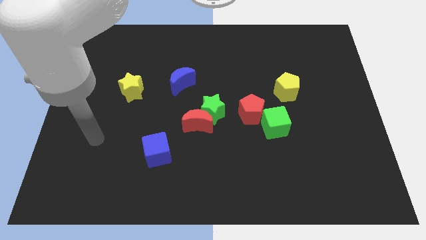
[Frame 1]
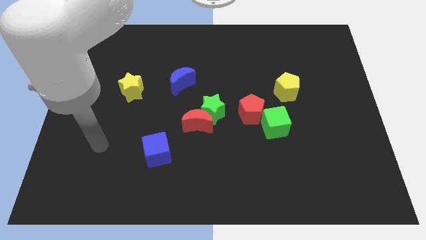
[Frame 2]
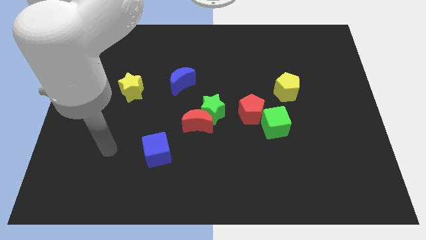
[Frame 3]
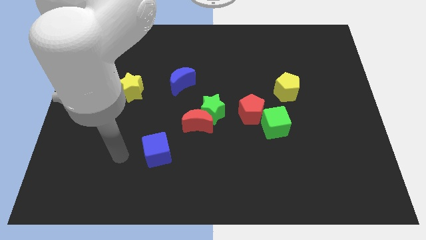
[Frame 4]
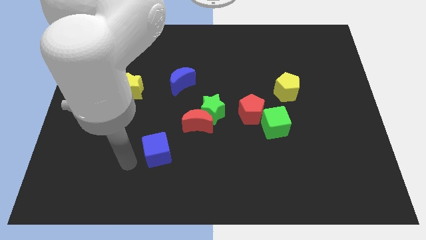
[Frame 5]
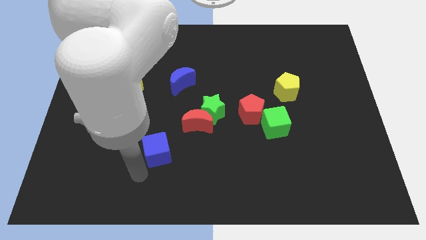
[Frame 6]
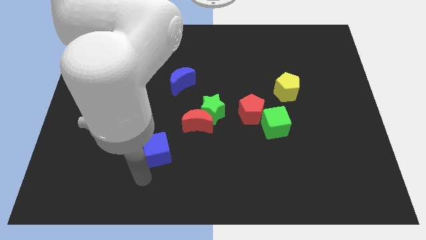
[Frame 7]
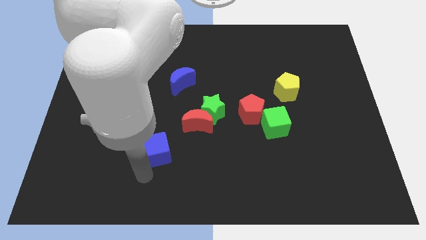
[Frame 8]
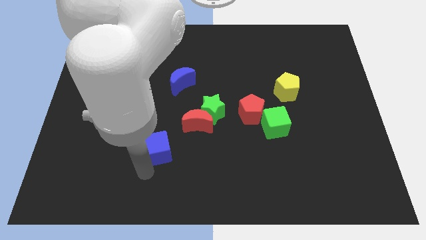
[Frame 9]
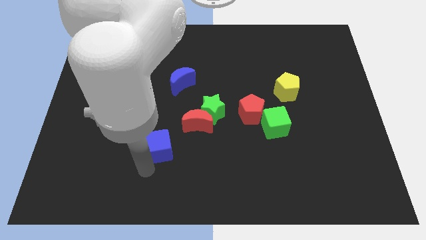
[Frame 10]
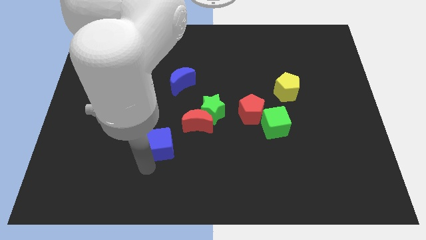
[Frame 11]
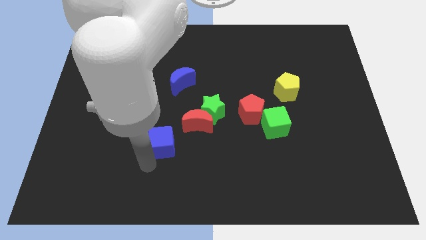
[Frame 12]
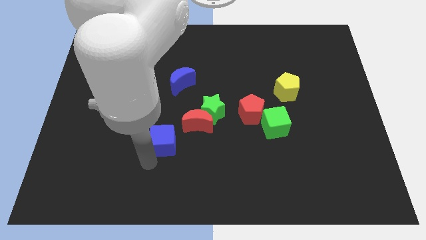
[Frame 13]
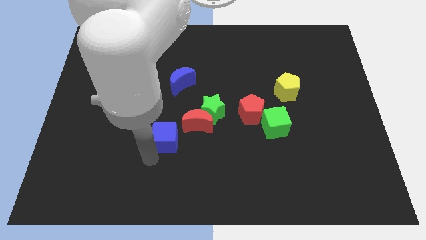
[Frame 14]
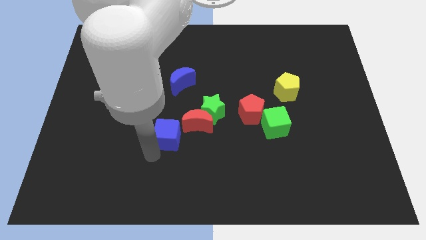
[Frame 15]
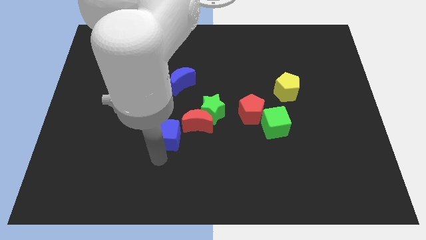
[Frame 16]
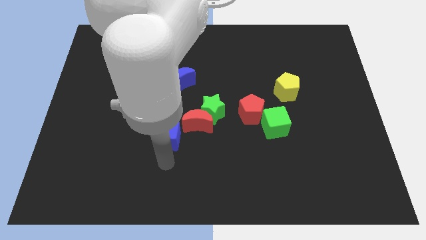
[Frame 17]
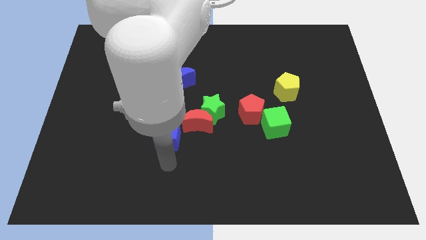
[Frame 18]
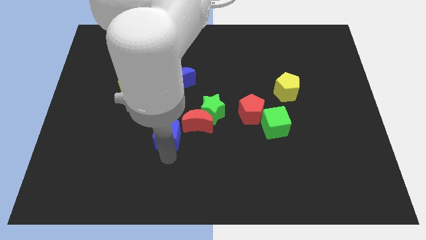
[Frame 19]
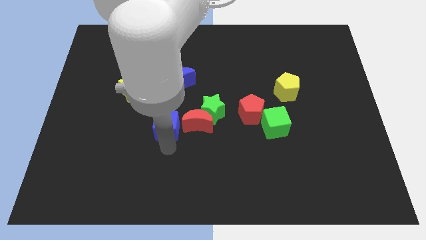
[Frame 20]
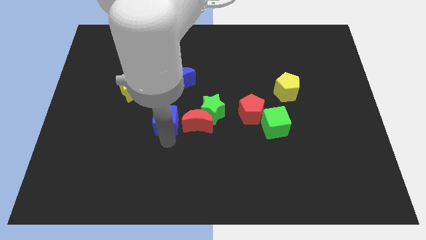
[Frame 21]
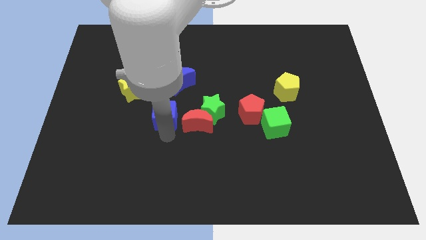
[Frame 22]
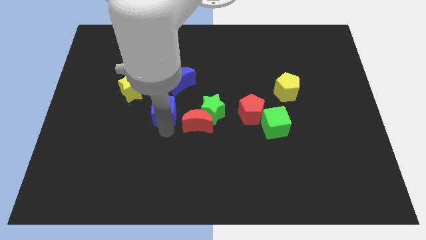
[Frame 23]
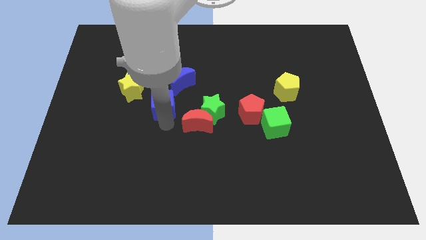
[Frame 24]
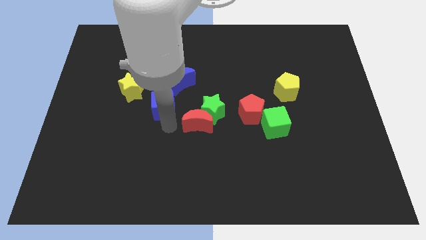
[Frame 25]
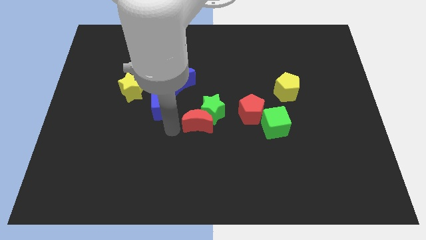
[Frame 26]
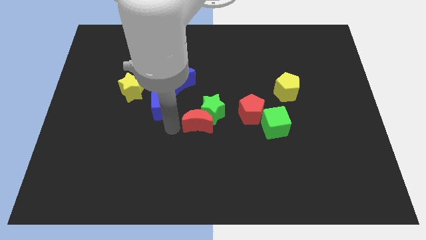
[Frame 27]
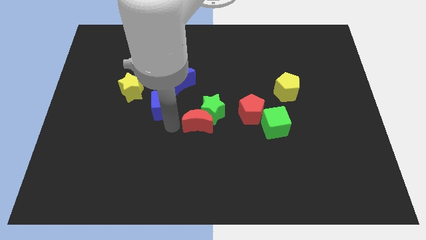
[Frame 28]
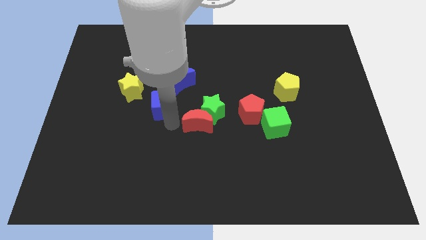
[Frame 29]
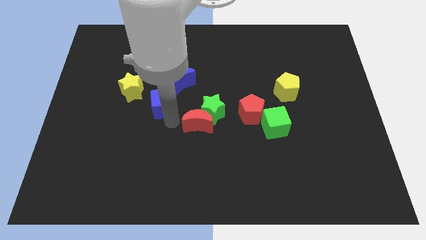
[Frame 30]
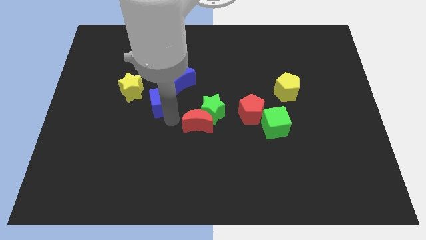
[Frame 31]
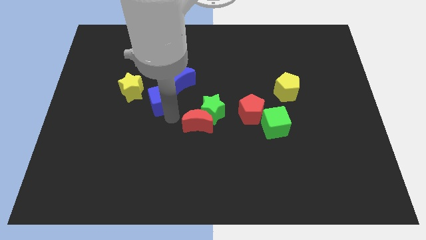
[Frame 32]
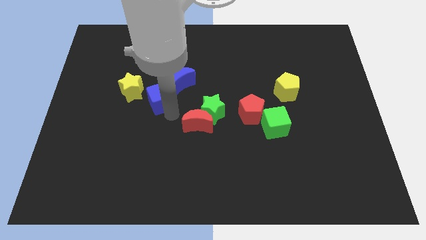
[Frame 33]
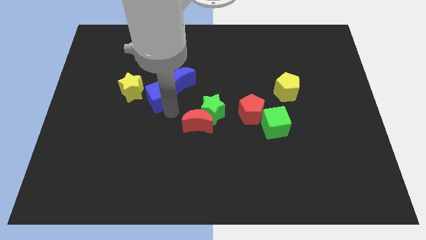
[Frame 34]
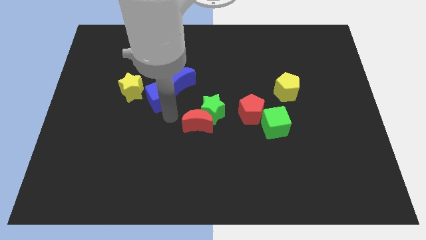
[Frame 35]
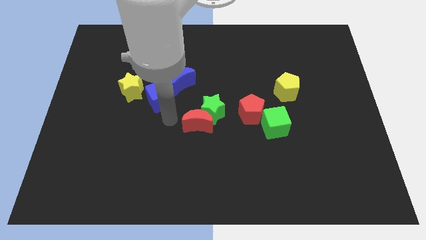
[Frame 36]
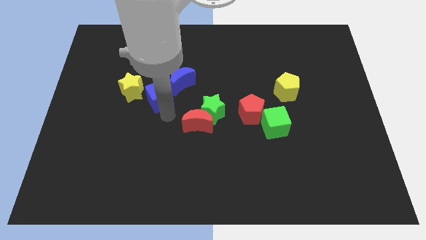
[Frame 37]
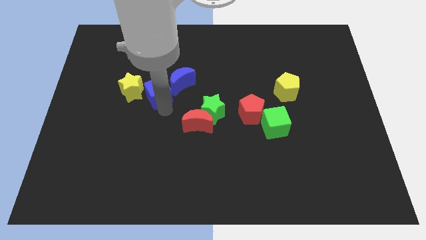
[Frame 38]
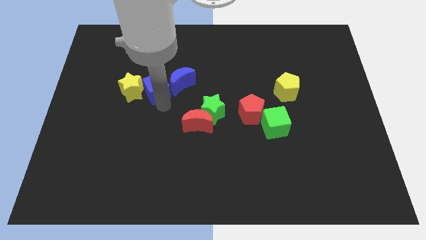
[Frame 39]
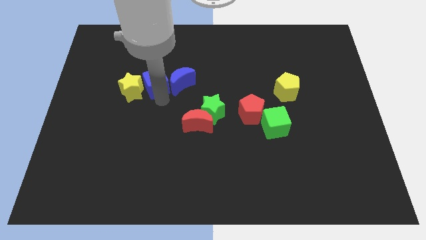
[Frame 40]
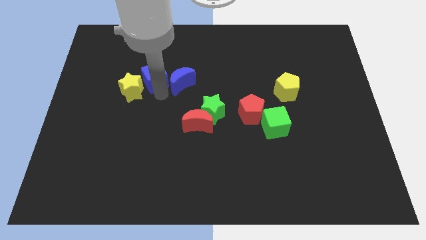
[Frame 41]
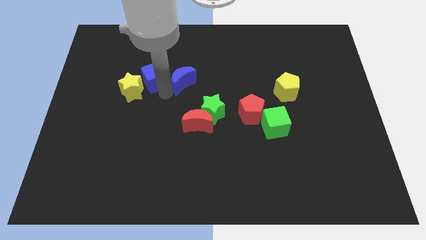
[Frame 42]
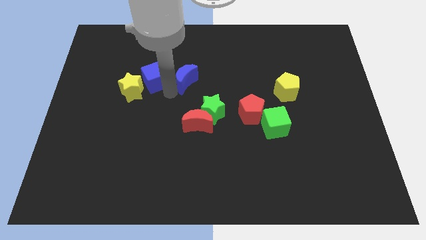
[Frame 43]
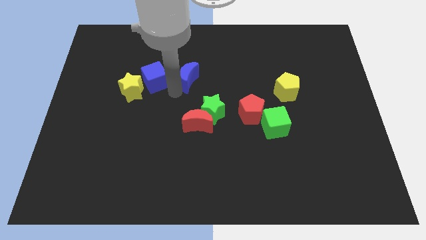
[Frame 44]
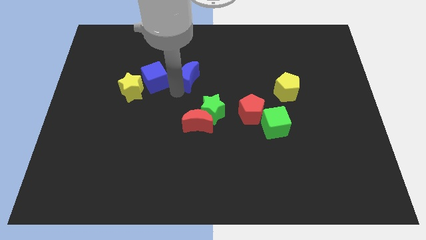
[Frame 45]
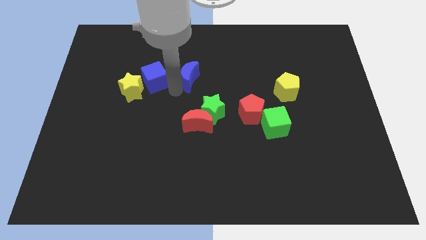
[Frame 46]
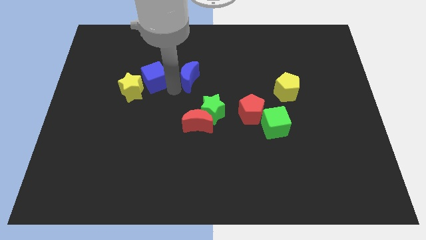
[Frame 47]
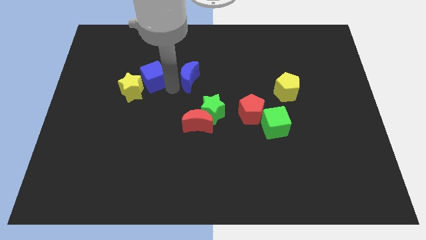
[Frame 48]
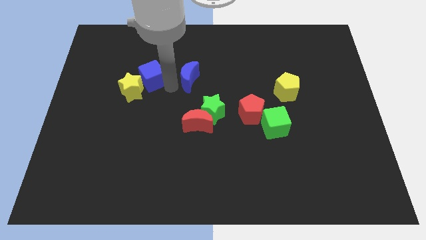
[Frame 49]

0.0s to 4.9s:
put the blue cube above the yellow star

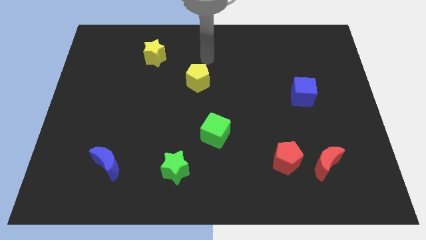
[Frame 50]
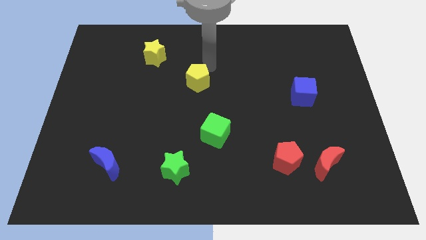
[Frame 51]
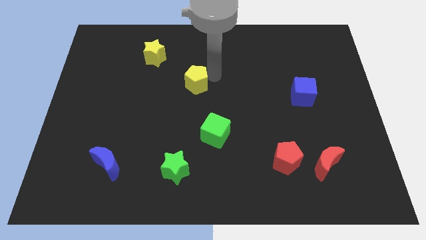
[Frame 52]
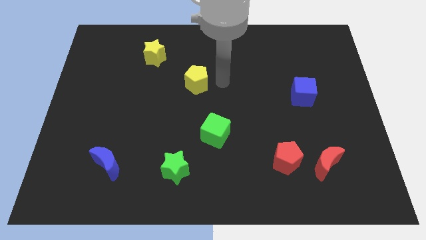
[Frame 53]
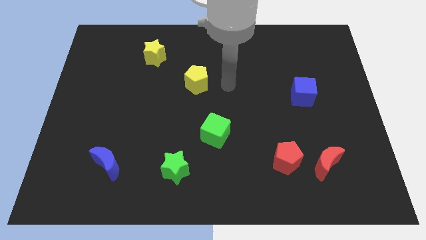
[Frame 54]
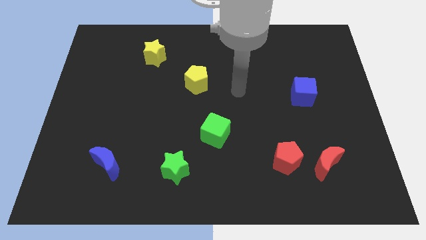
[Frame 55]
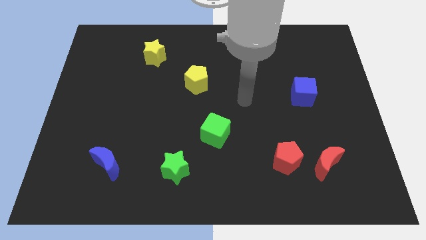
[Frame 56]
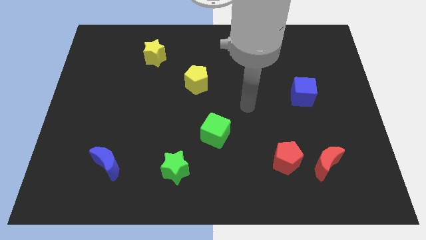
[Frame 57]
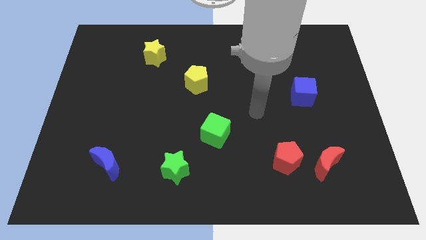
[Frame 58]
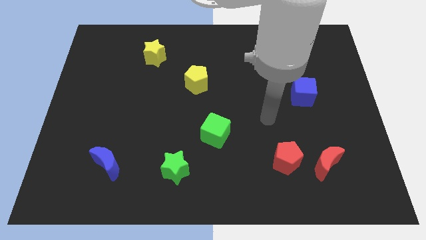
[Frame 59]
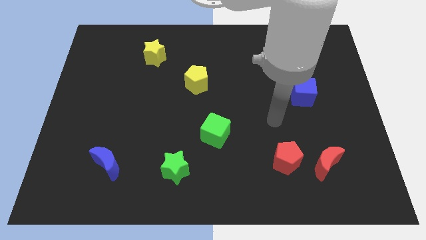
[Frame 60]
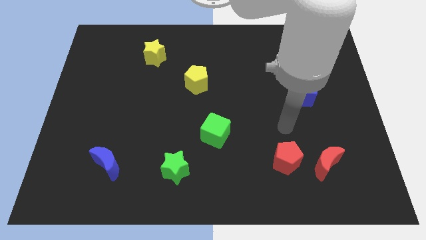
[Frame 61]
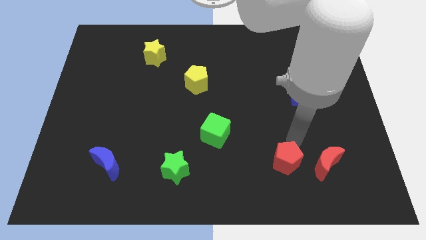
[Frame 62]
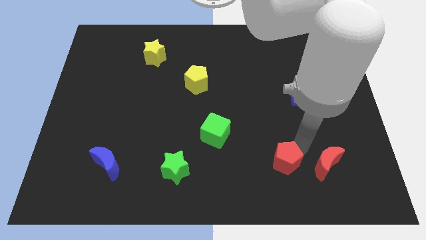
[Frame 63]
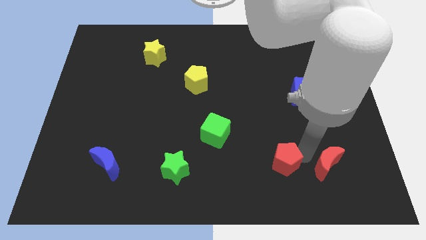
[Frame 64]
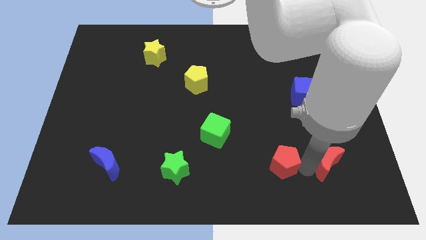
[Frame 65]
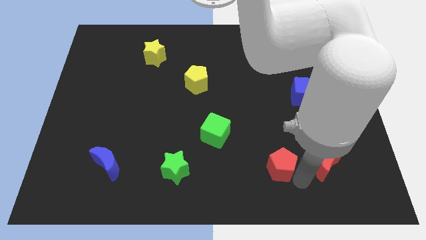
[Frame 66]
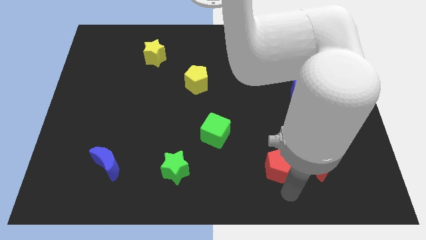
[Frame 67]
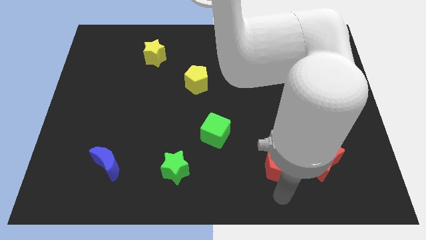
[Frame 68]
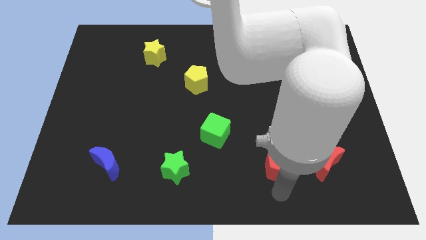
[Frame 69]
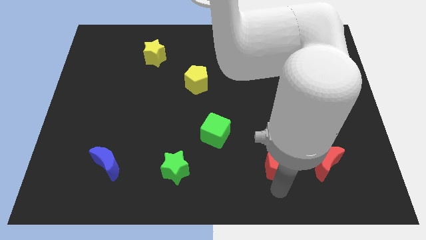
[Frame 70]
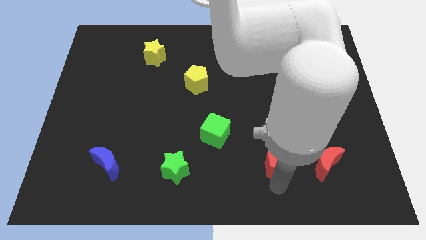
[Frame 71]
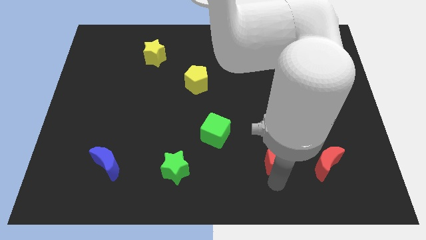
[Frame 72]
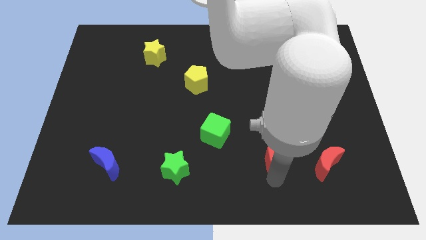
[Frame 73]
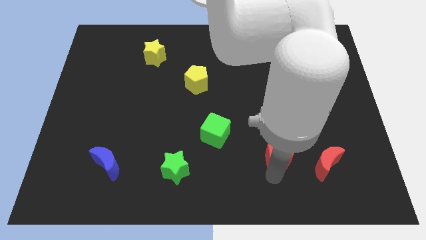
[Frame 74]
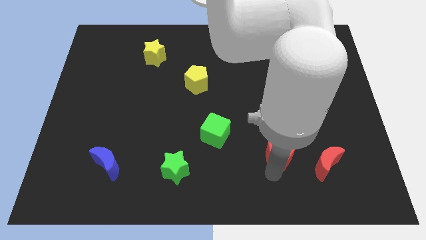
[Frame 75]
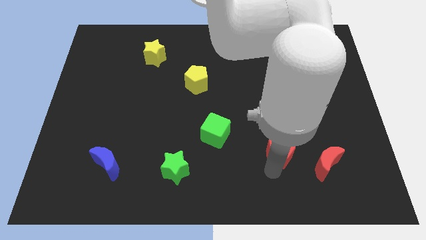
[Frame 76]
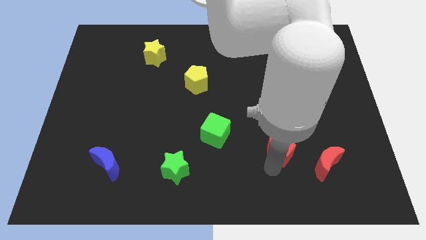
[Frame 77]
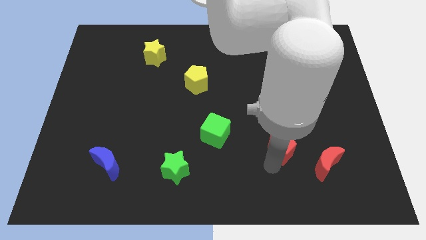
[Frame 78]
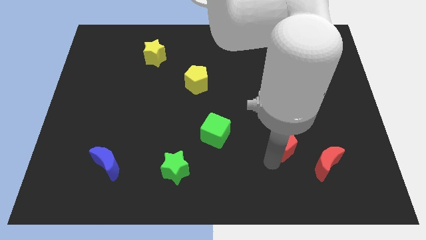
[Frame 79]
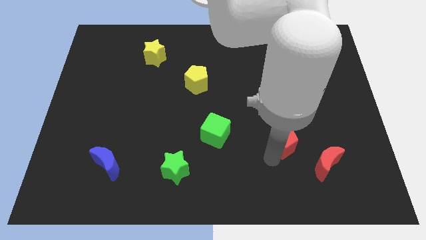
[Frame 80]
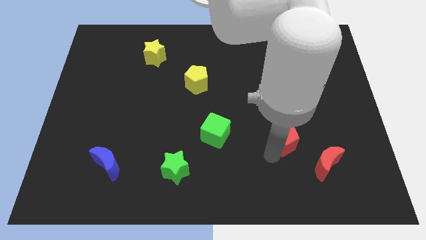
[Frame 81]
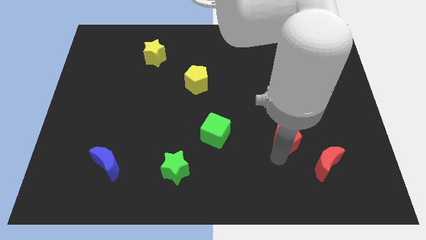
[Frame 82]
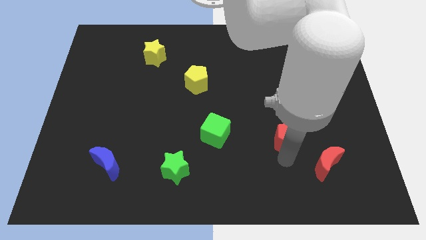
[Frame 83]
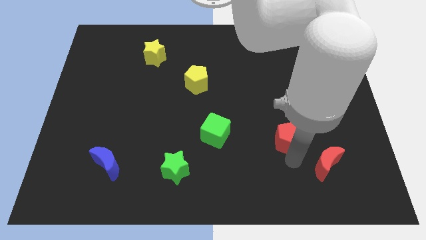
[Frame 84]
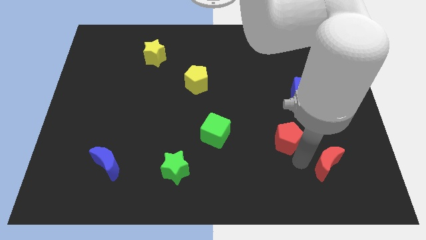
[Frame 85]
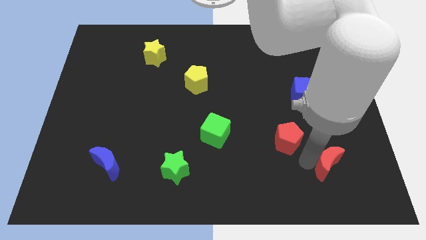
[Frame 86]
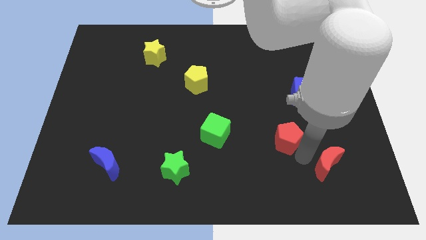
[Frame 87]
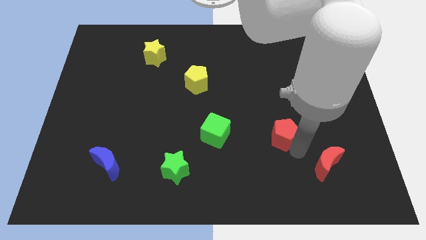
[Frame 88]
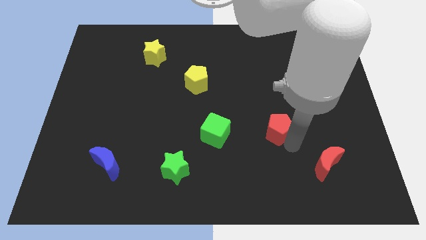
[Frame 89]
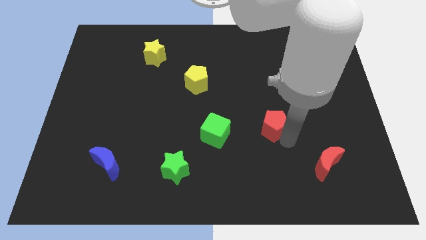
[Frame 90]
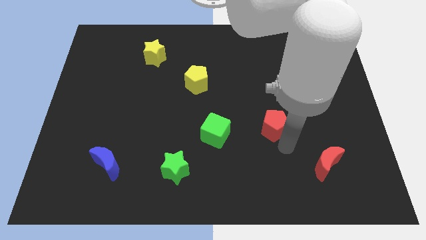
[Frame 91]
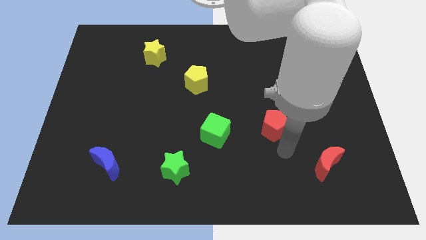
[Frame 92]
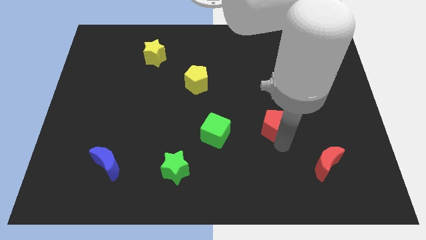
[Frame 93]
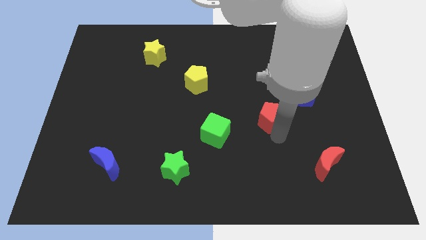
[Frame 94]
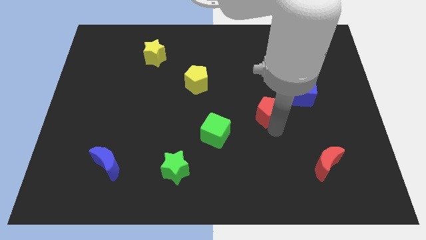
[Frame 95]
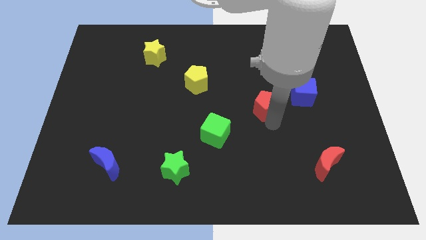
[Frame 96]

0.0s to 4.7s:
push the red pentagon to the left side of the blue cube
